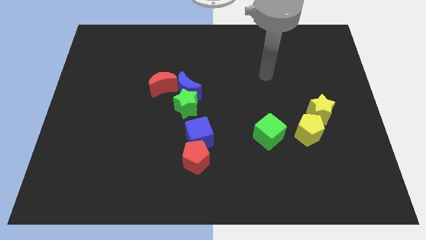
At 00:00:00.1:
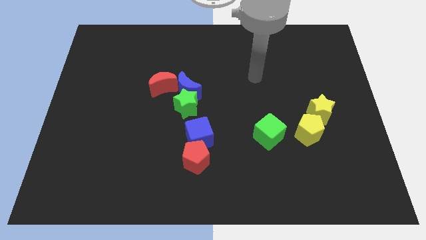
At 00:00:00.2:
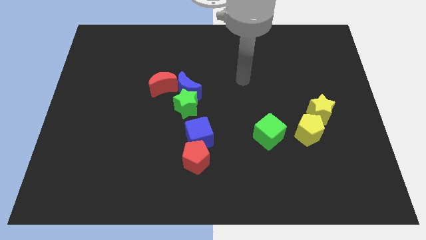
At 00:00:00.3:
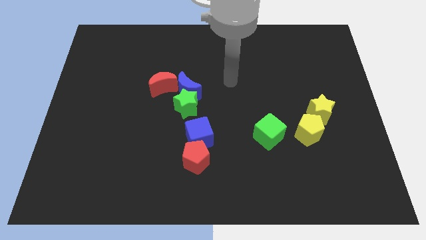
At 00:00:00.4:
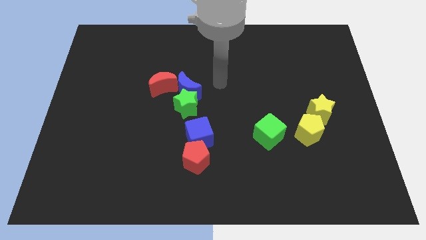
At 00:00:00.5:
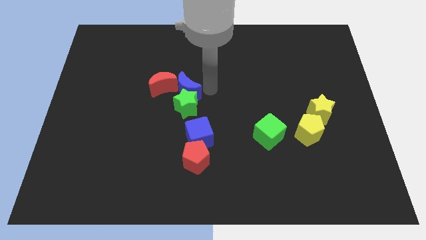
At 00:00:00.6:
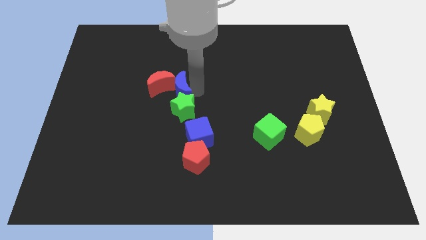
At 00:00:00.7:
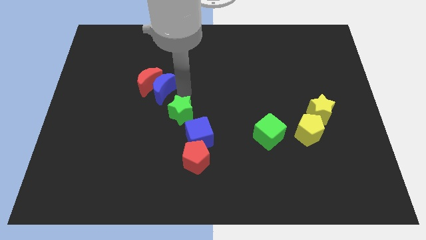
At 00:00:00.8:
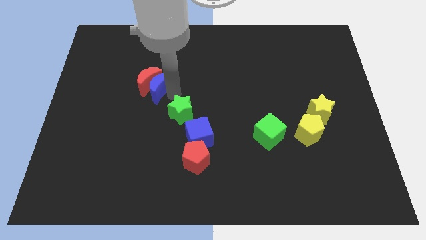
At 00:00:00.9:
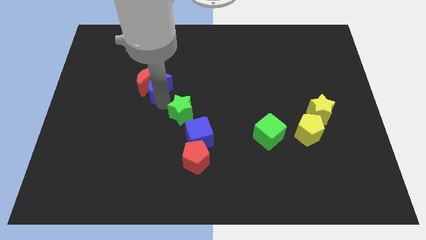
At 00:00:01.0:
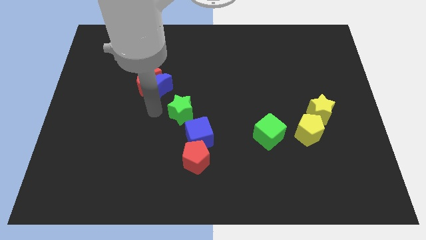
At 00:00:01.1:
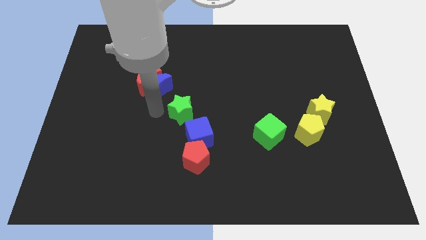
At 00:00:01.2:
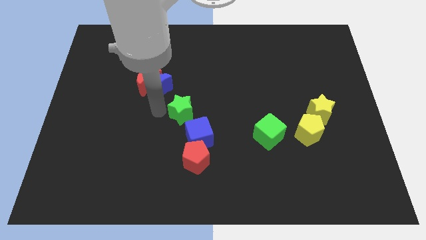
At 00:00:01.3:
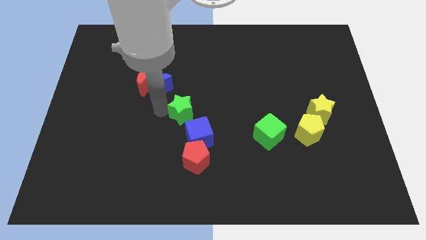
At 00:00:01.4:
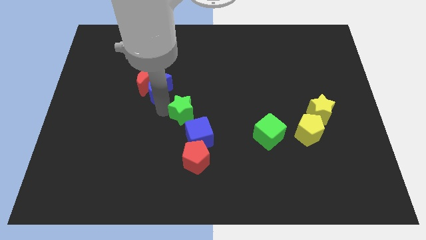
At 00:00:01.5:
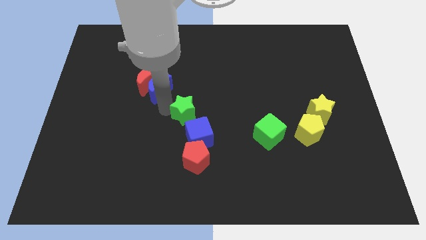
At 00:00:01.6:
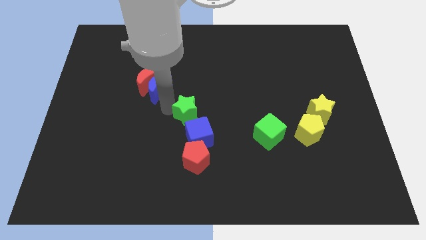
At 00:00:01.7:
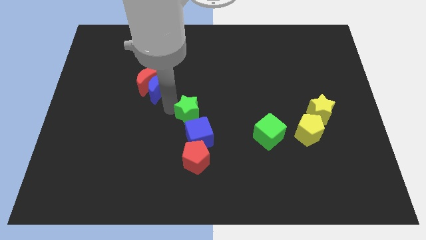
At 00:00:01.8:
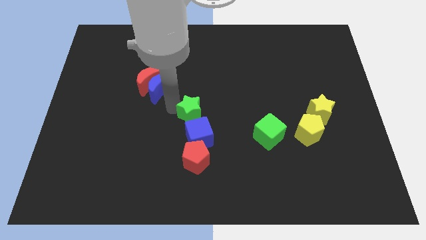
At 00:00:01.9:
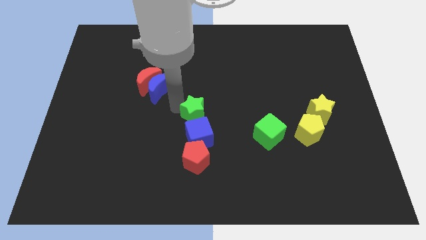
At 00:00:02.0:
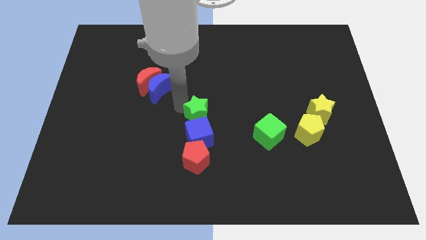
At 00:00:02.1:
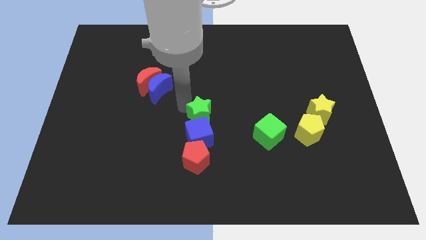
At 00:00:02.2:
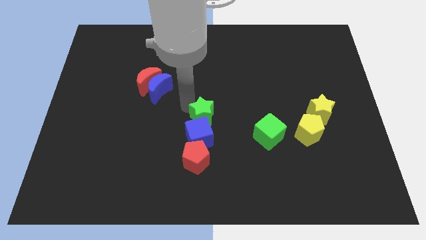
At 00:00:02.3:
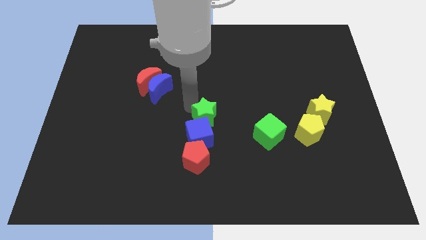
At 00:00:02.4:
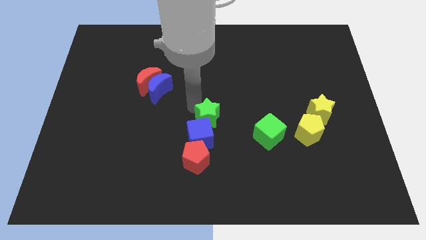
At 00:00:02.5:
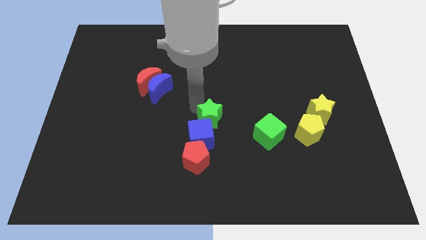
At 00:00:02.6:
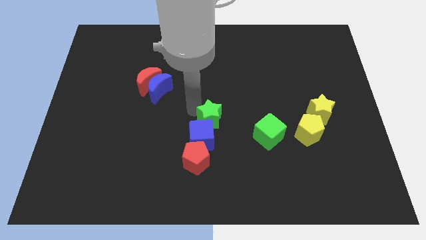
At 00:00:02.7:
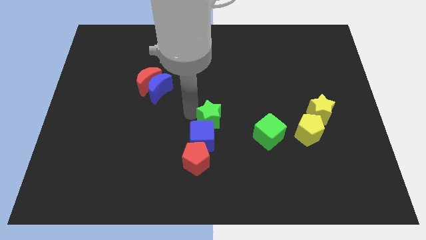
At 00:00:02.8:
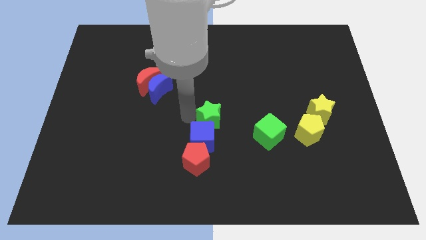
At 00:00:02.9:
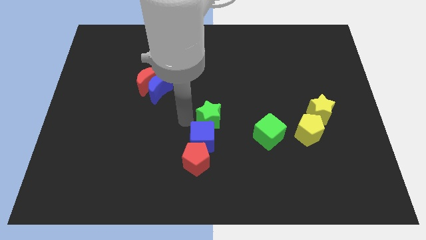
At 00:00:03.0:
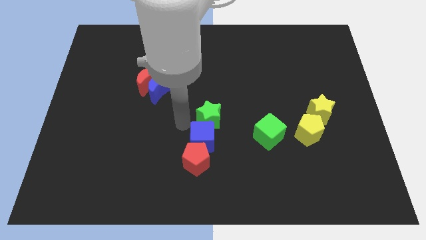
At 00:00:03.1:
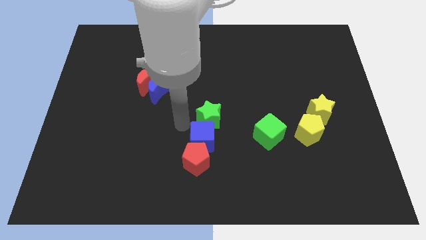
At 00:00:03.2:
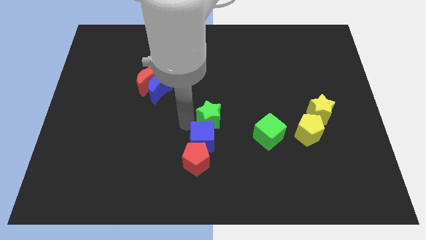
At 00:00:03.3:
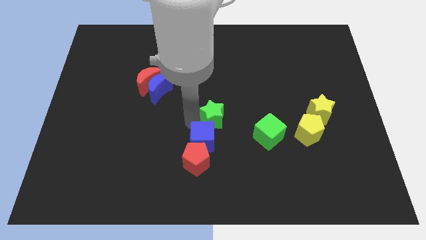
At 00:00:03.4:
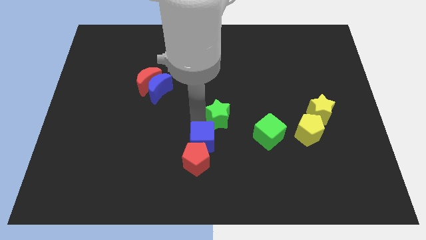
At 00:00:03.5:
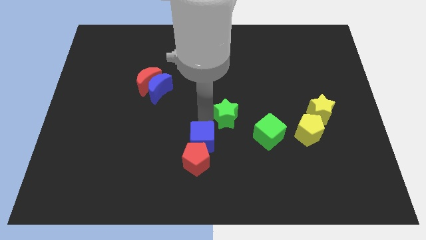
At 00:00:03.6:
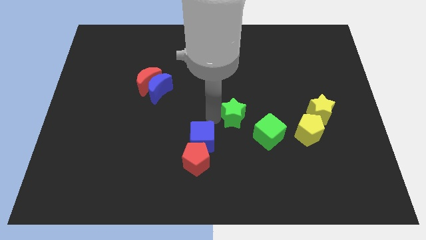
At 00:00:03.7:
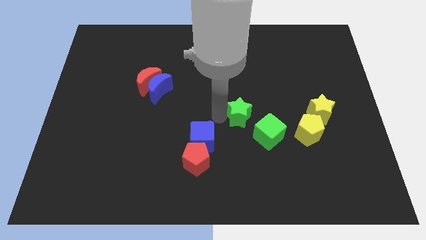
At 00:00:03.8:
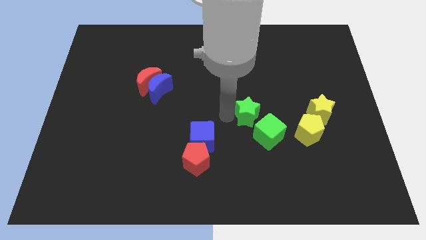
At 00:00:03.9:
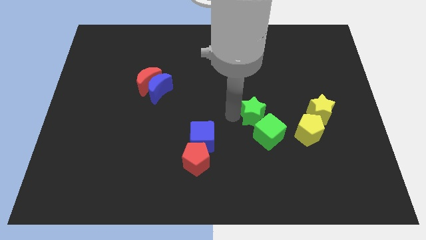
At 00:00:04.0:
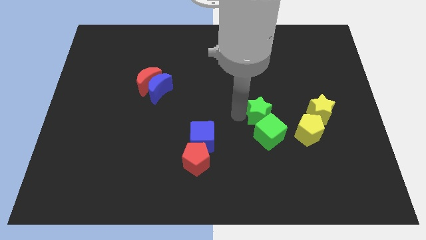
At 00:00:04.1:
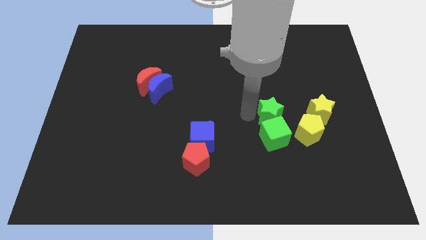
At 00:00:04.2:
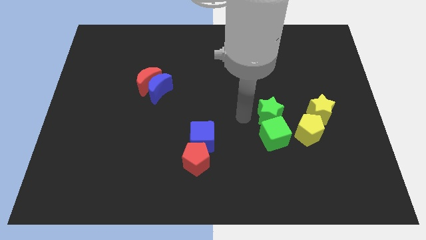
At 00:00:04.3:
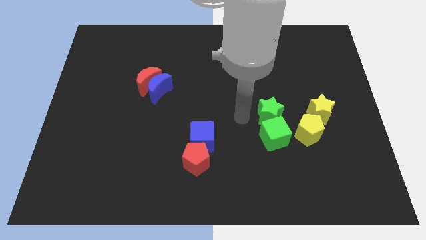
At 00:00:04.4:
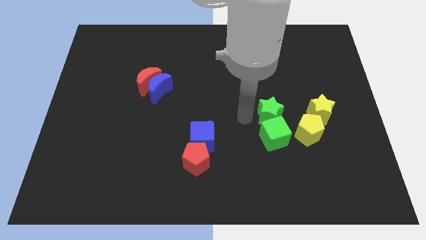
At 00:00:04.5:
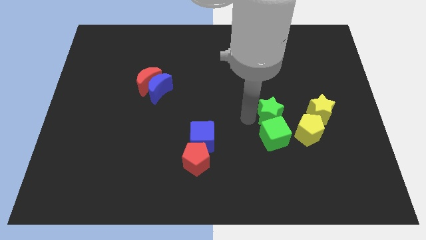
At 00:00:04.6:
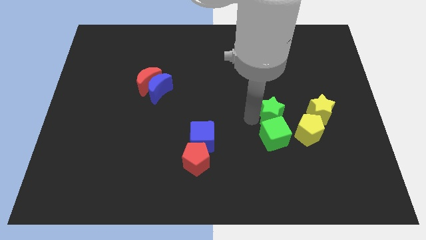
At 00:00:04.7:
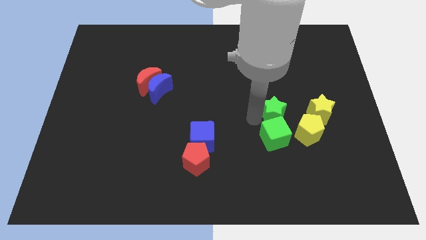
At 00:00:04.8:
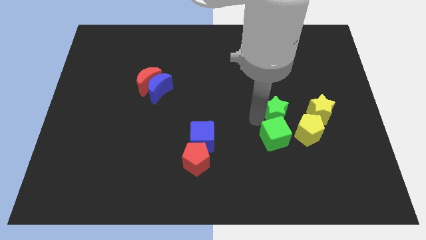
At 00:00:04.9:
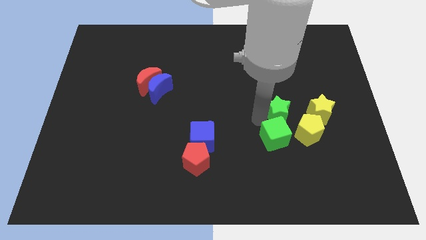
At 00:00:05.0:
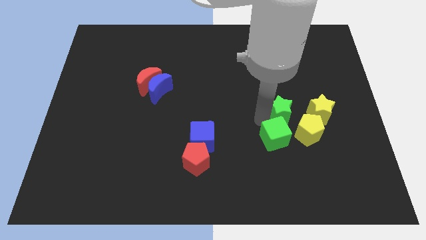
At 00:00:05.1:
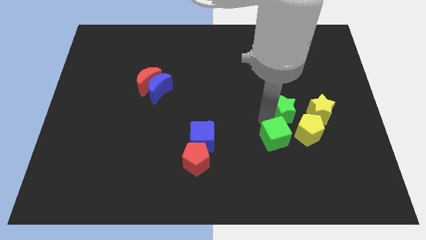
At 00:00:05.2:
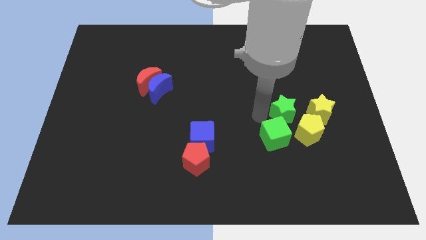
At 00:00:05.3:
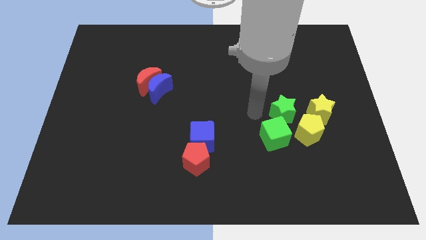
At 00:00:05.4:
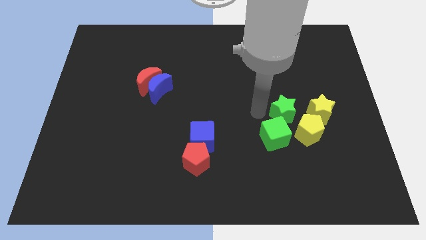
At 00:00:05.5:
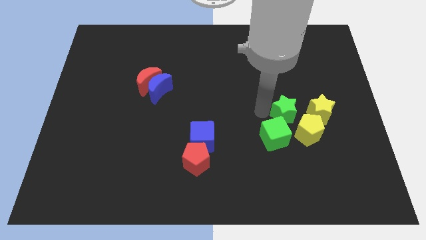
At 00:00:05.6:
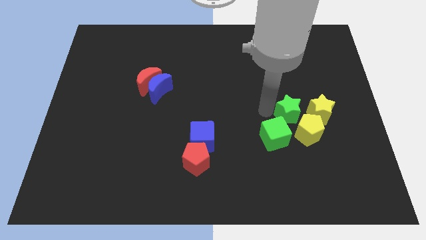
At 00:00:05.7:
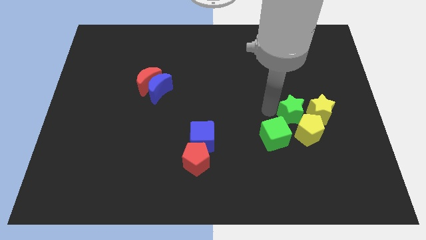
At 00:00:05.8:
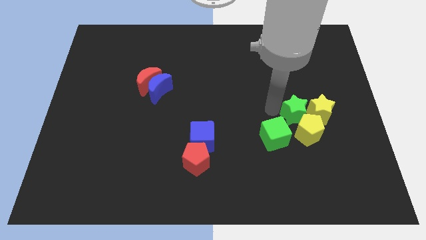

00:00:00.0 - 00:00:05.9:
move the green star close to the yellow star

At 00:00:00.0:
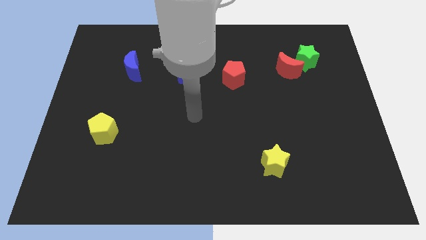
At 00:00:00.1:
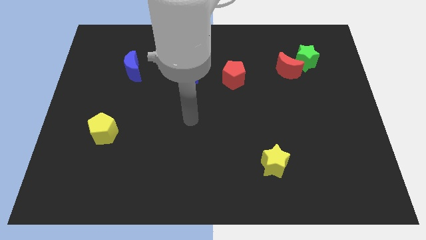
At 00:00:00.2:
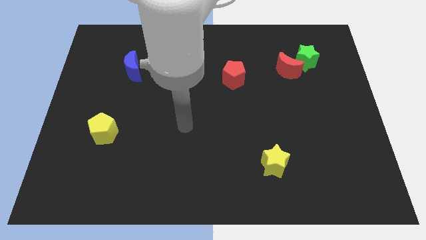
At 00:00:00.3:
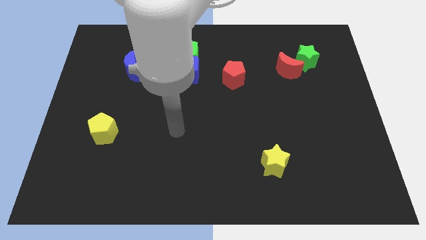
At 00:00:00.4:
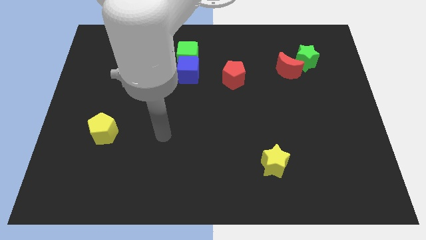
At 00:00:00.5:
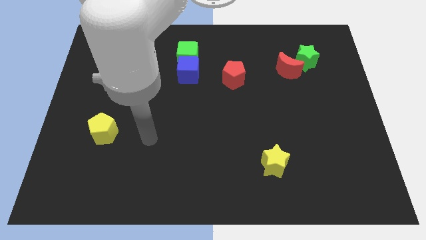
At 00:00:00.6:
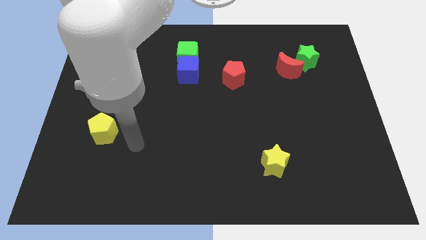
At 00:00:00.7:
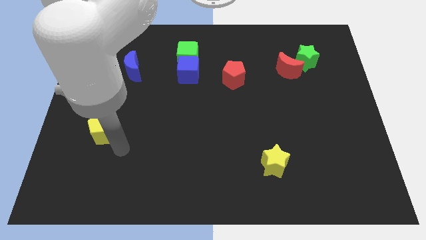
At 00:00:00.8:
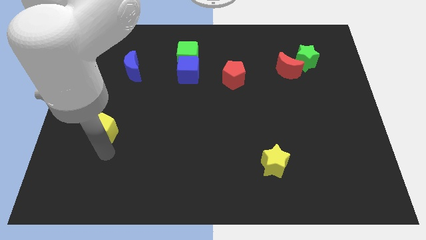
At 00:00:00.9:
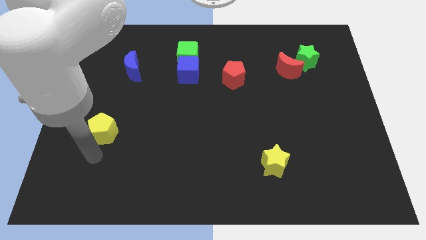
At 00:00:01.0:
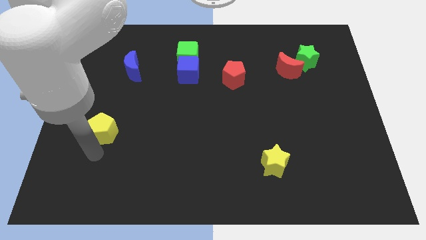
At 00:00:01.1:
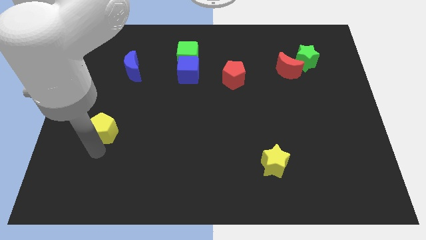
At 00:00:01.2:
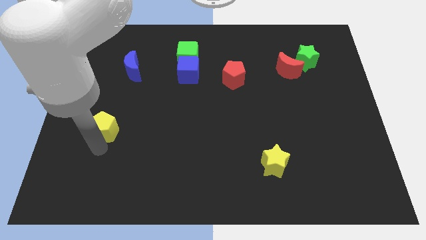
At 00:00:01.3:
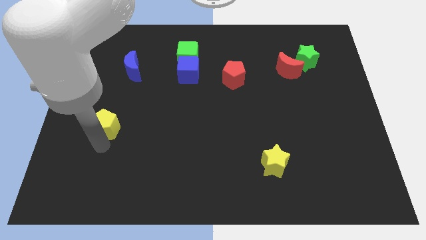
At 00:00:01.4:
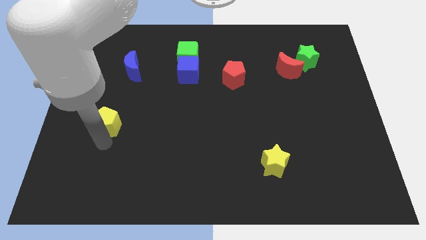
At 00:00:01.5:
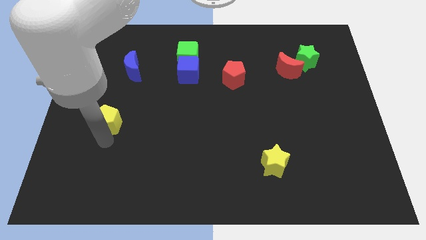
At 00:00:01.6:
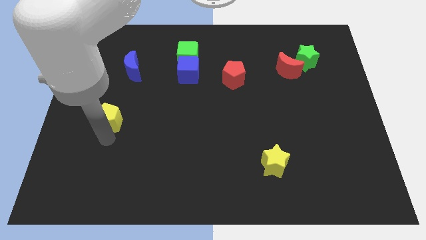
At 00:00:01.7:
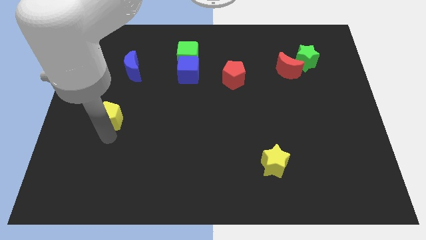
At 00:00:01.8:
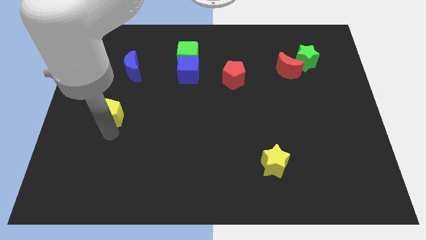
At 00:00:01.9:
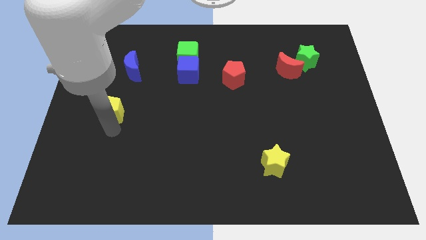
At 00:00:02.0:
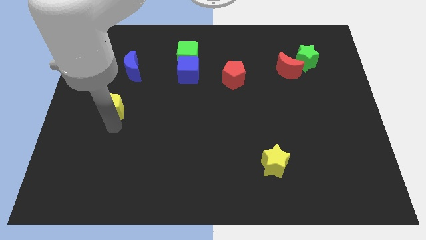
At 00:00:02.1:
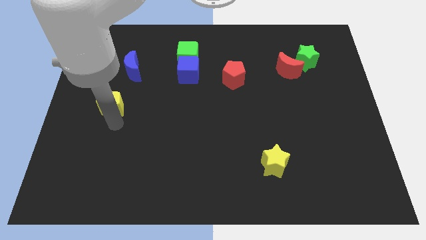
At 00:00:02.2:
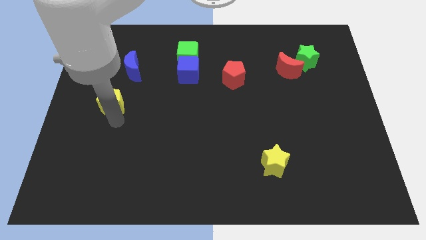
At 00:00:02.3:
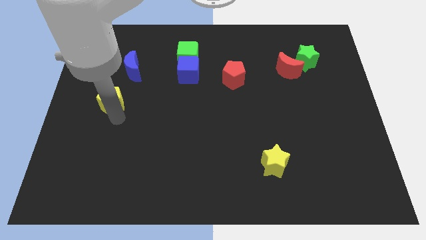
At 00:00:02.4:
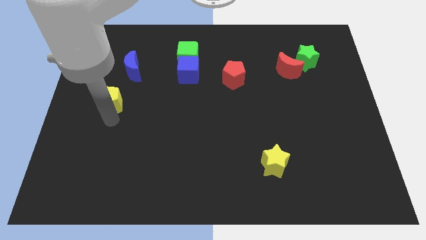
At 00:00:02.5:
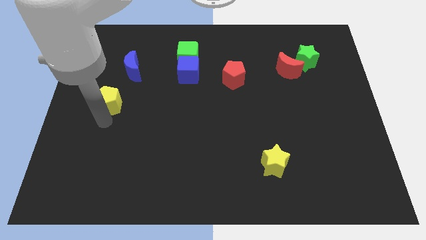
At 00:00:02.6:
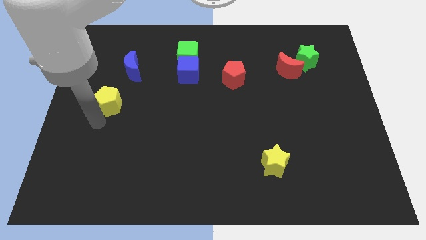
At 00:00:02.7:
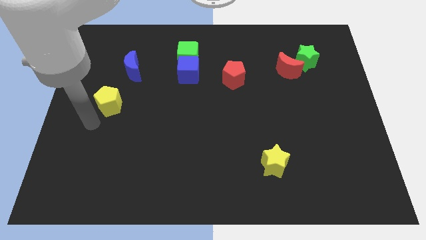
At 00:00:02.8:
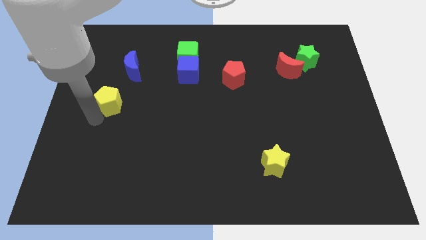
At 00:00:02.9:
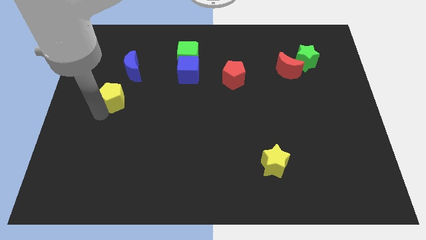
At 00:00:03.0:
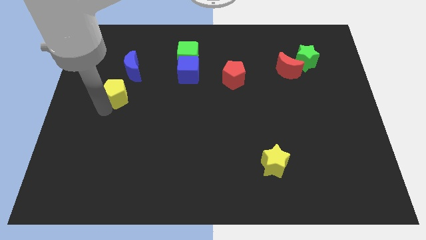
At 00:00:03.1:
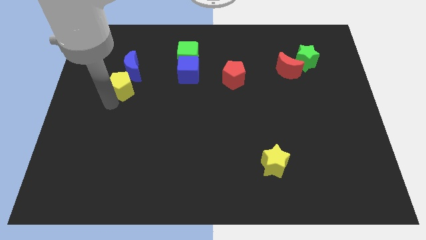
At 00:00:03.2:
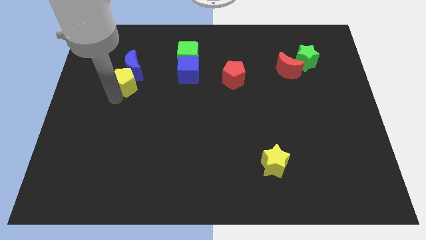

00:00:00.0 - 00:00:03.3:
push the yellow pentagon to the blue moon
